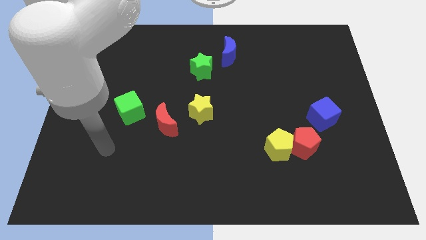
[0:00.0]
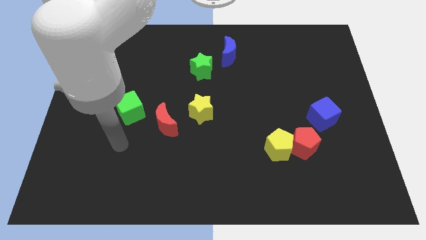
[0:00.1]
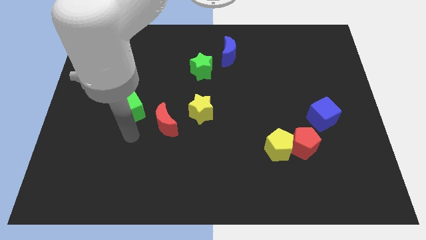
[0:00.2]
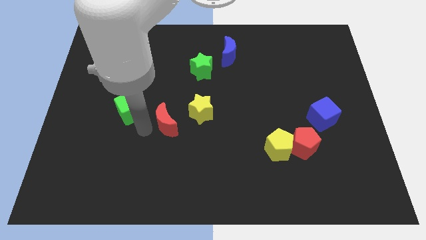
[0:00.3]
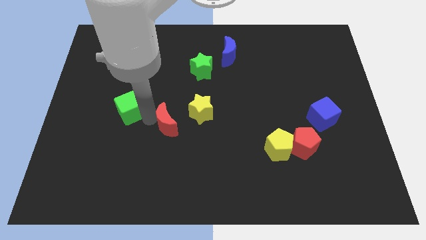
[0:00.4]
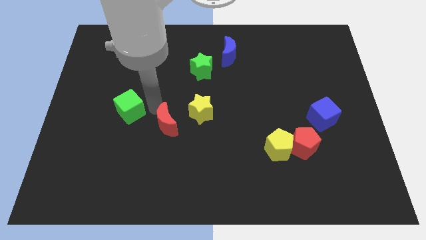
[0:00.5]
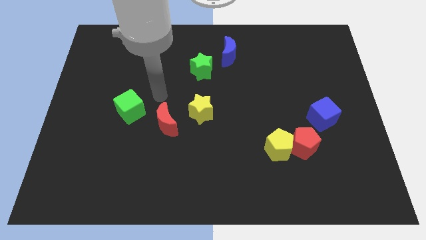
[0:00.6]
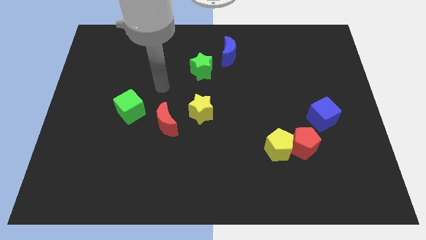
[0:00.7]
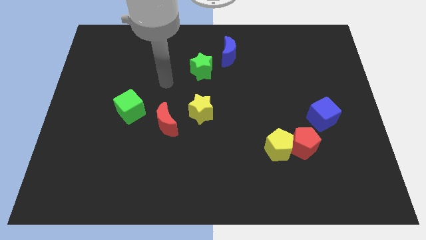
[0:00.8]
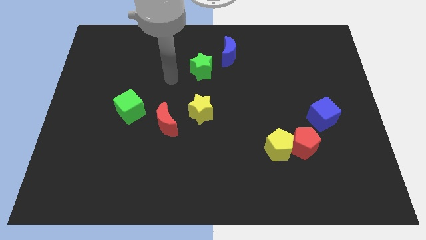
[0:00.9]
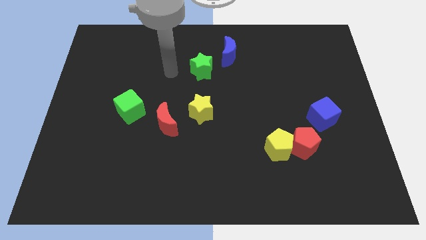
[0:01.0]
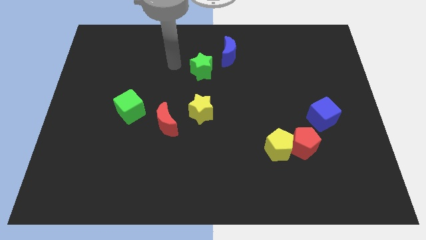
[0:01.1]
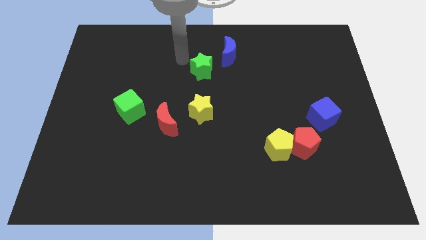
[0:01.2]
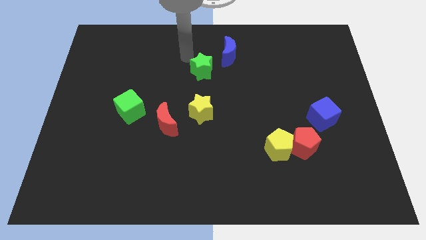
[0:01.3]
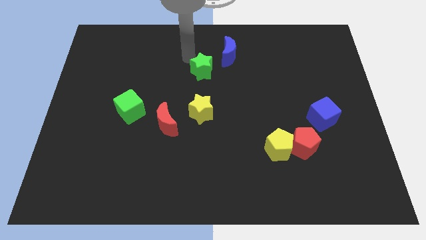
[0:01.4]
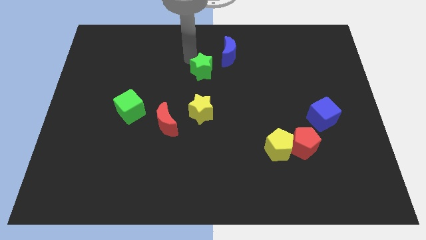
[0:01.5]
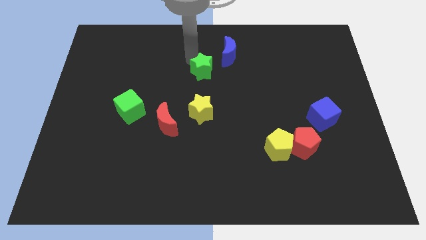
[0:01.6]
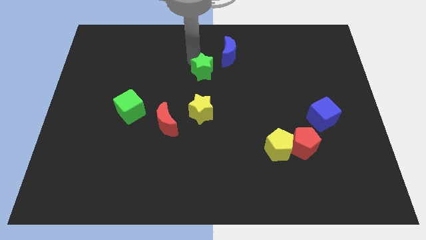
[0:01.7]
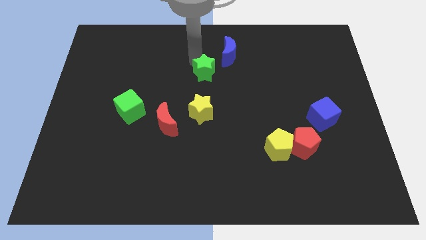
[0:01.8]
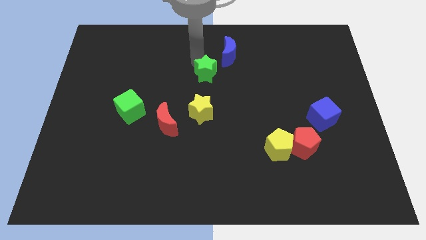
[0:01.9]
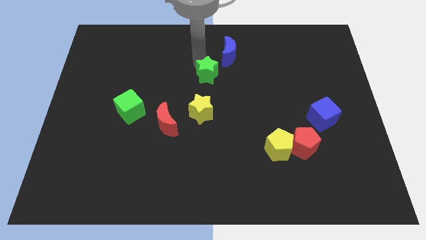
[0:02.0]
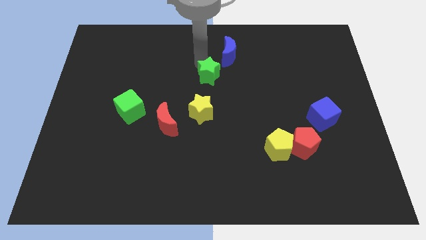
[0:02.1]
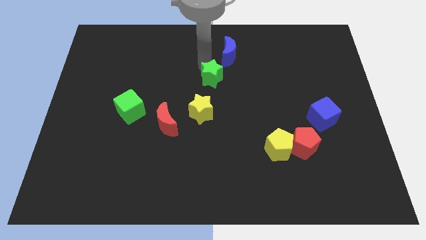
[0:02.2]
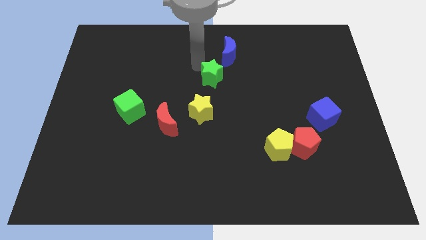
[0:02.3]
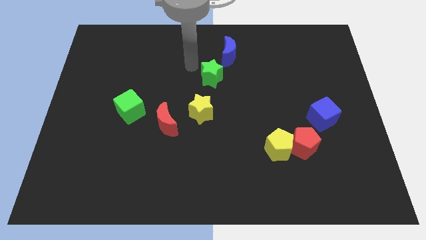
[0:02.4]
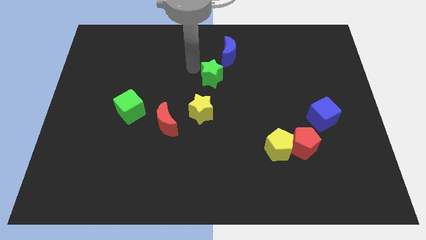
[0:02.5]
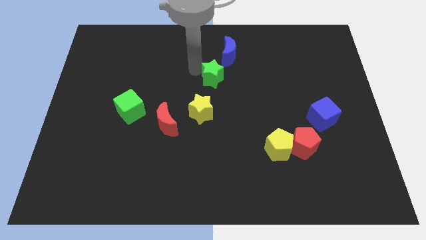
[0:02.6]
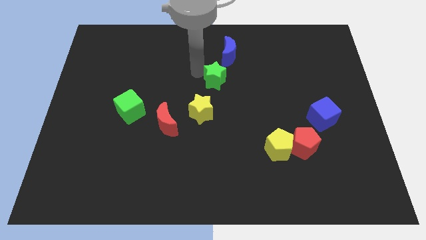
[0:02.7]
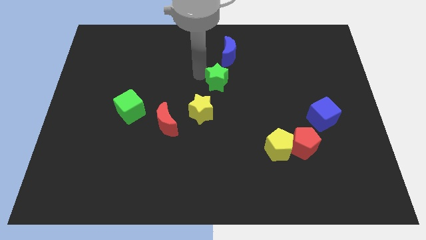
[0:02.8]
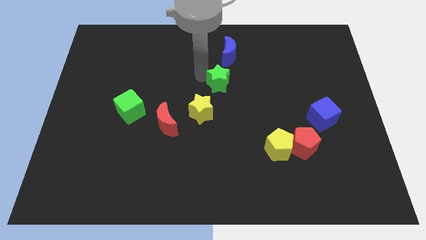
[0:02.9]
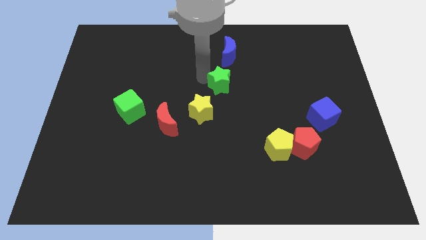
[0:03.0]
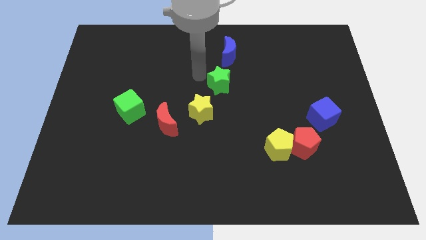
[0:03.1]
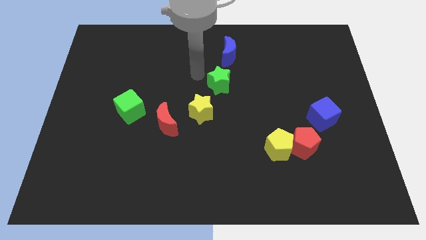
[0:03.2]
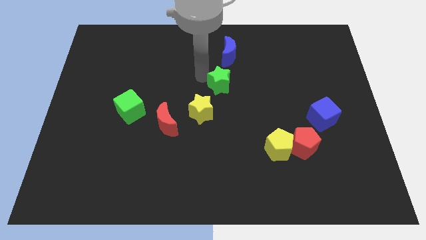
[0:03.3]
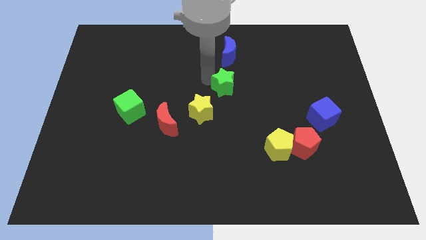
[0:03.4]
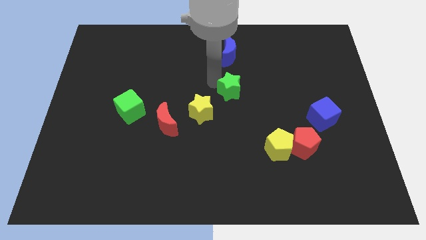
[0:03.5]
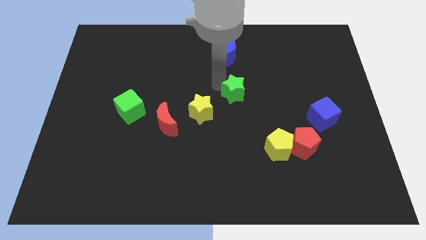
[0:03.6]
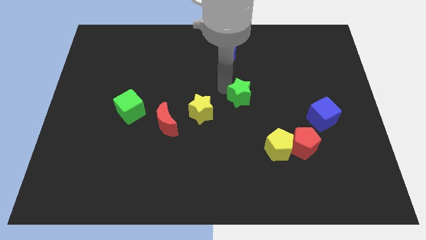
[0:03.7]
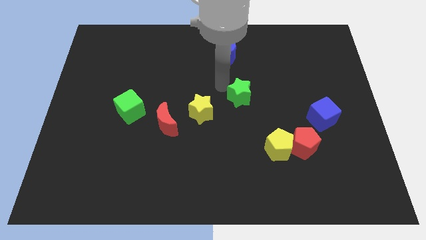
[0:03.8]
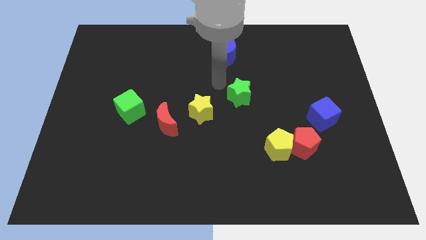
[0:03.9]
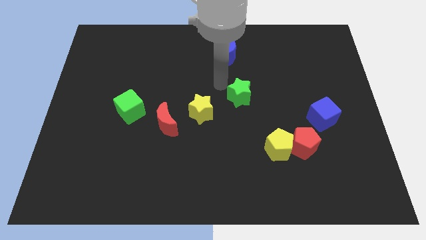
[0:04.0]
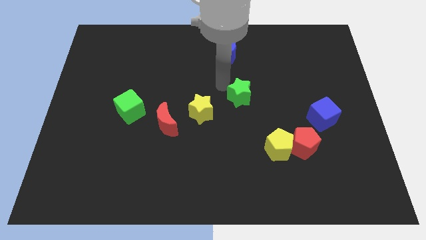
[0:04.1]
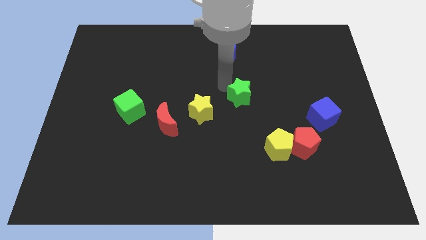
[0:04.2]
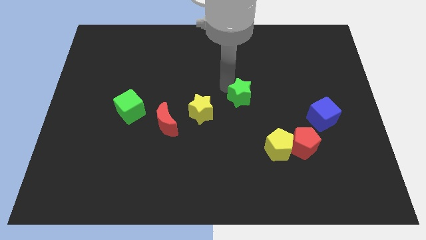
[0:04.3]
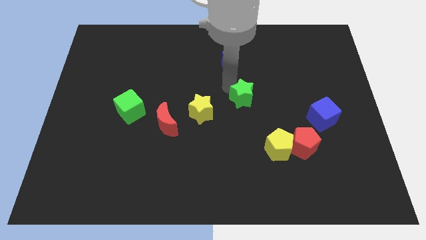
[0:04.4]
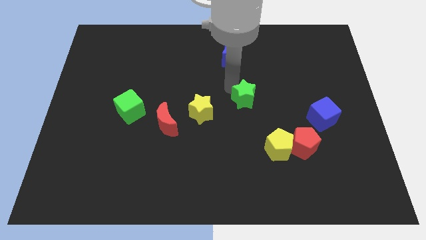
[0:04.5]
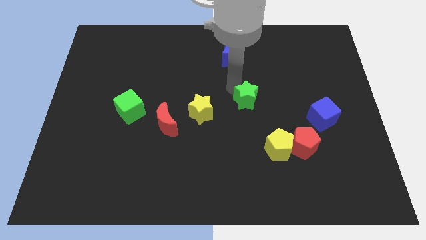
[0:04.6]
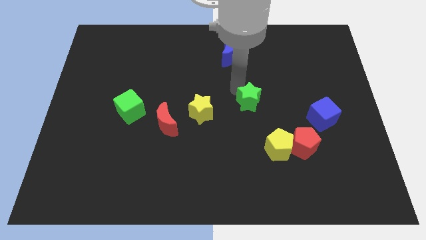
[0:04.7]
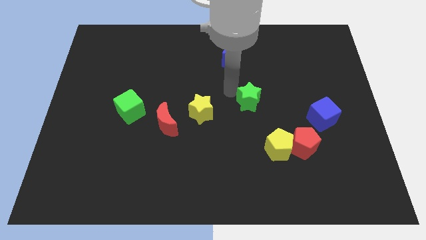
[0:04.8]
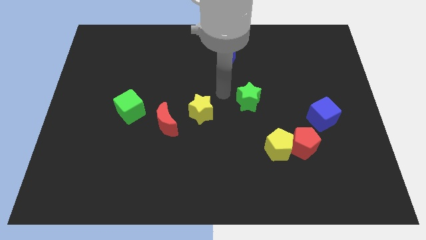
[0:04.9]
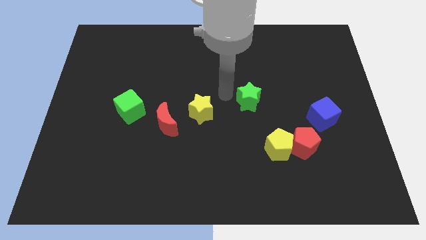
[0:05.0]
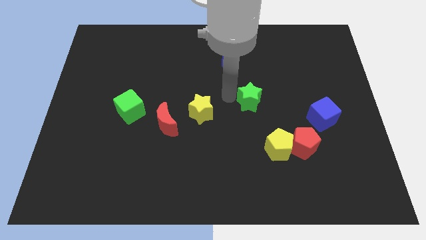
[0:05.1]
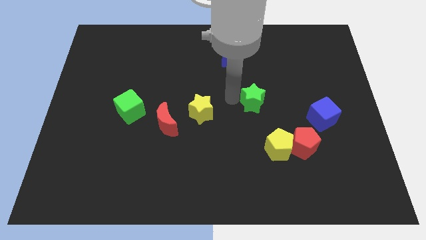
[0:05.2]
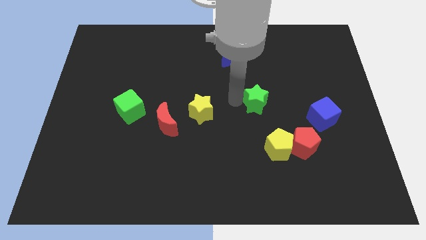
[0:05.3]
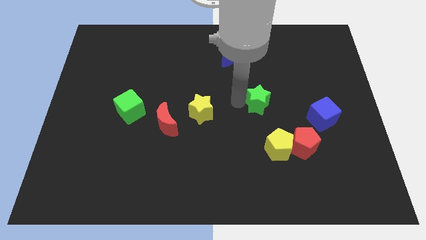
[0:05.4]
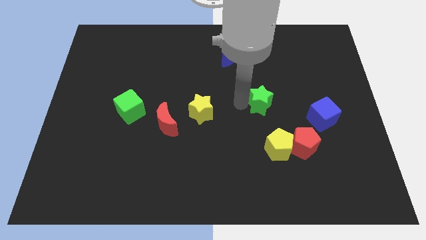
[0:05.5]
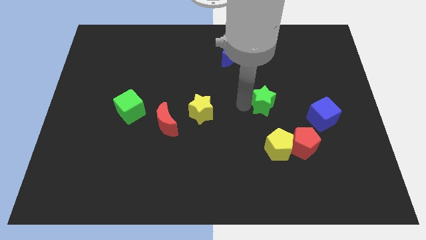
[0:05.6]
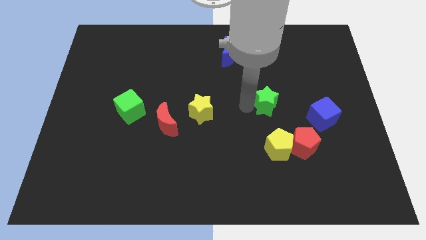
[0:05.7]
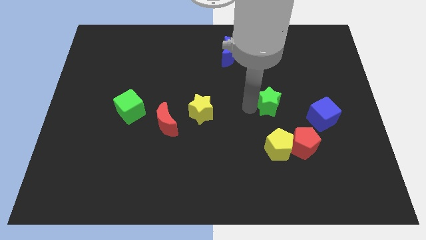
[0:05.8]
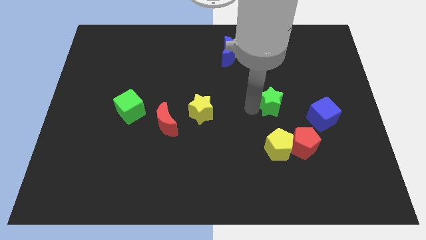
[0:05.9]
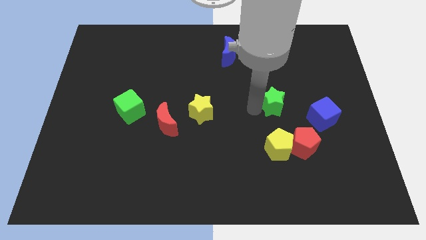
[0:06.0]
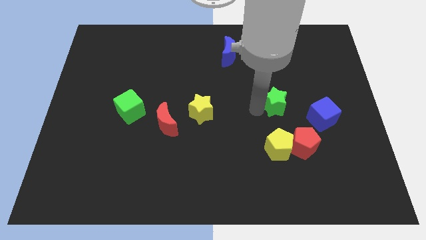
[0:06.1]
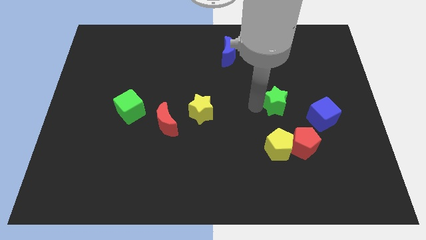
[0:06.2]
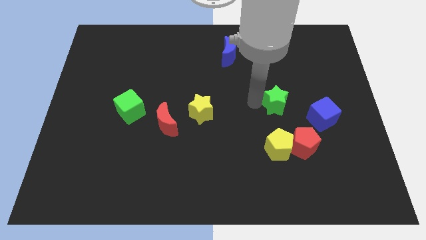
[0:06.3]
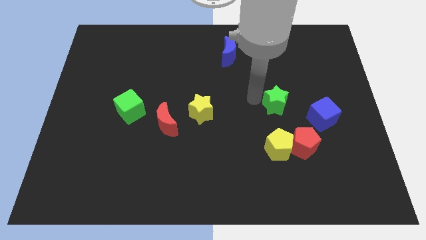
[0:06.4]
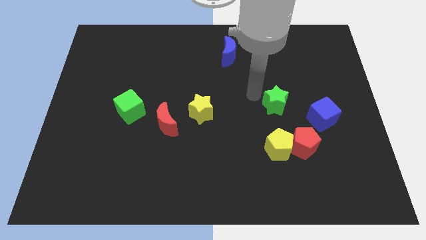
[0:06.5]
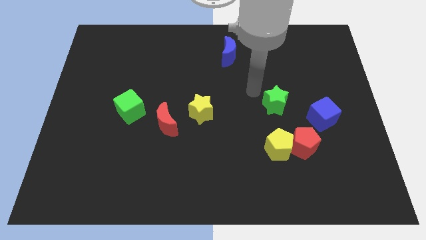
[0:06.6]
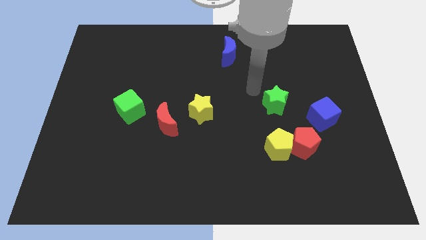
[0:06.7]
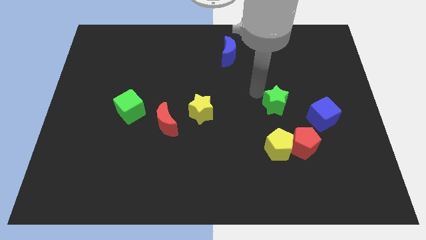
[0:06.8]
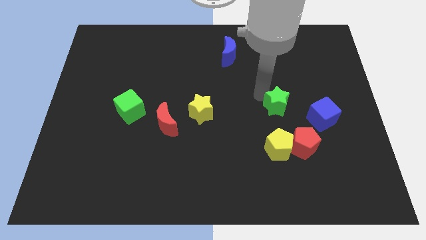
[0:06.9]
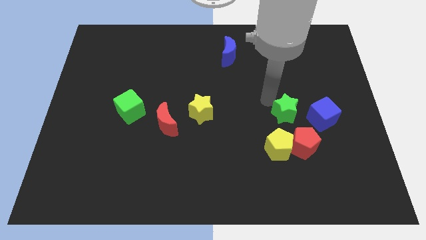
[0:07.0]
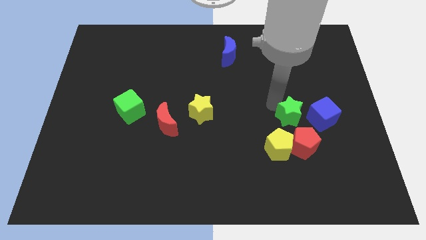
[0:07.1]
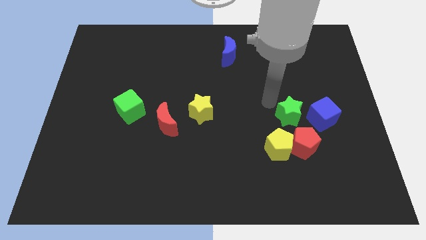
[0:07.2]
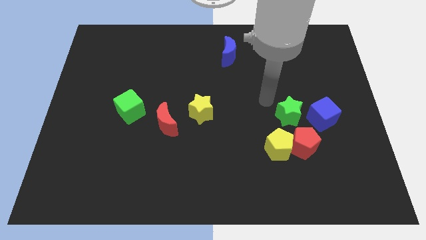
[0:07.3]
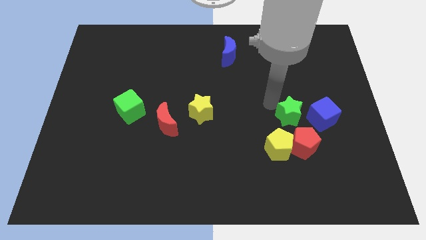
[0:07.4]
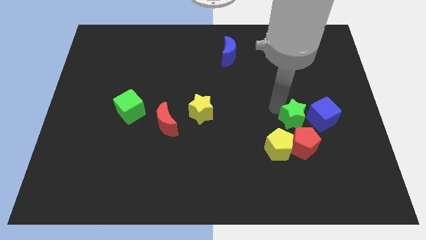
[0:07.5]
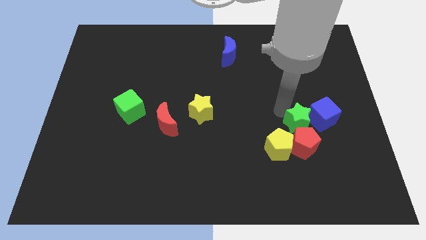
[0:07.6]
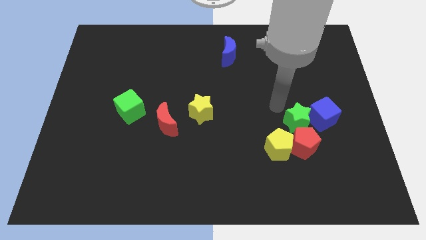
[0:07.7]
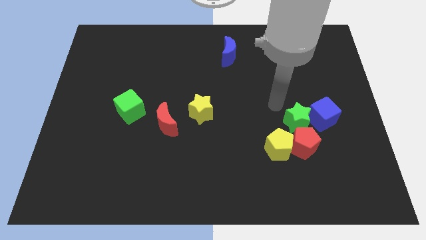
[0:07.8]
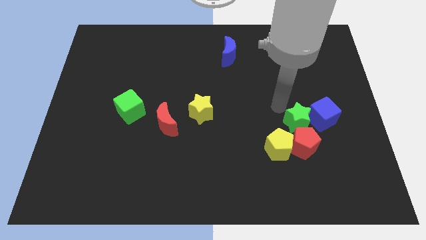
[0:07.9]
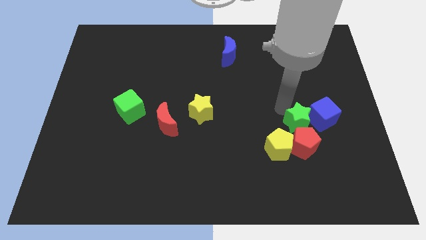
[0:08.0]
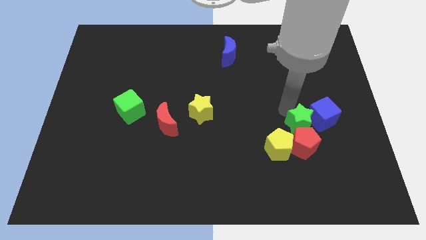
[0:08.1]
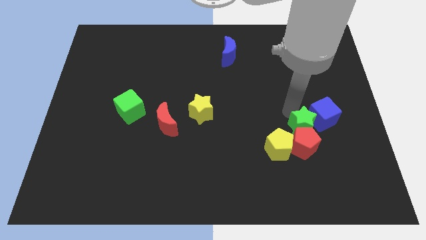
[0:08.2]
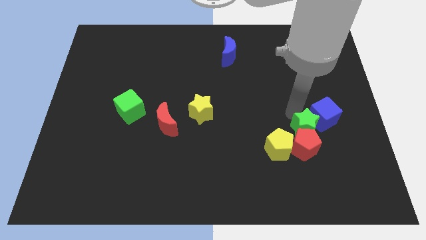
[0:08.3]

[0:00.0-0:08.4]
slide the green star to the right side of the yellow pentagon
